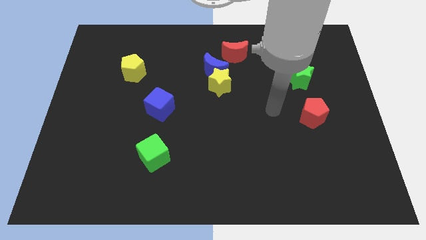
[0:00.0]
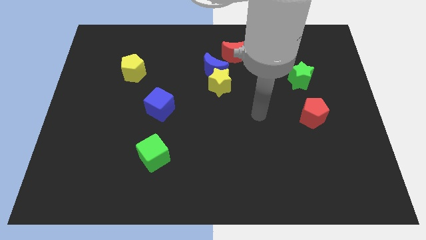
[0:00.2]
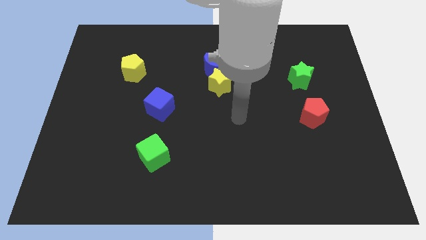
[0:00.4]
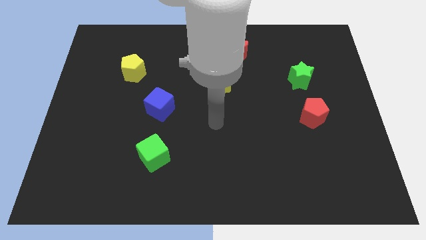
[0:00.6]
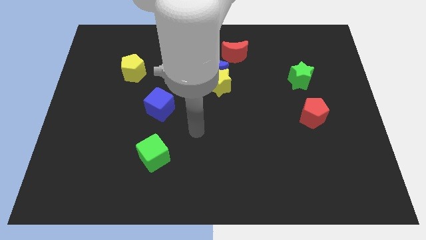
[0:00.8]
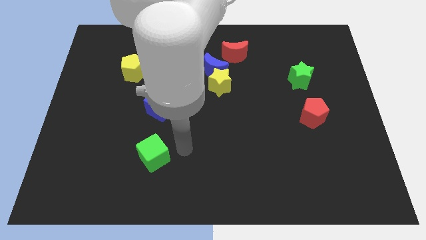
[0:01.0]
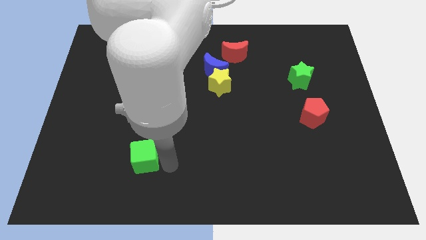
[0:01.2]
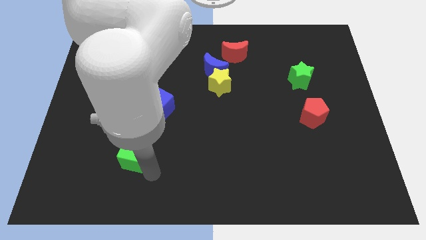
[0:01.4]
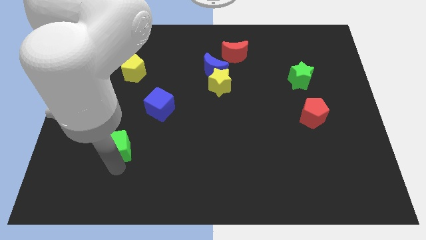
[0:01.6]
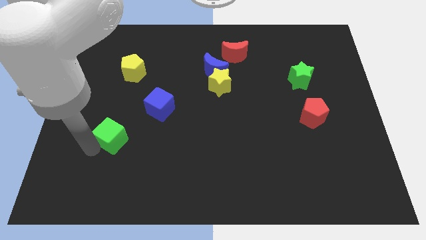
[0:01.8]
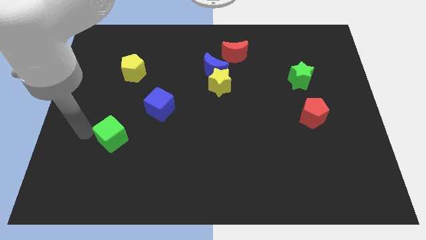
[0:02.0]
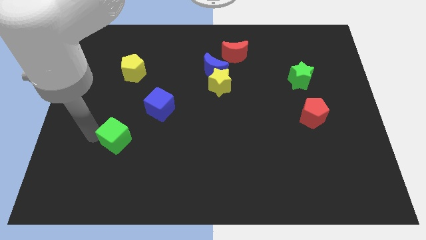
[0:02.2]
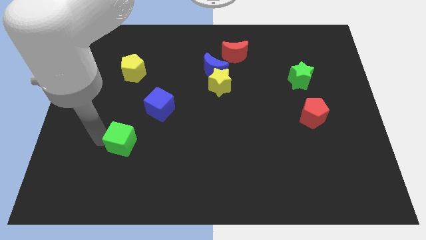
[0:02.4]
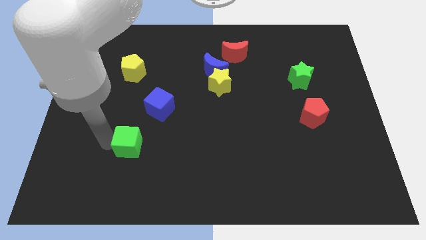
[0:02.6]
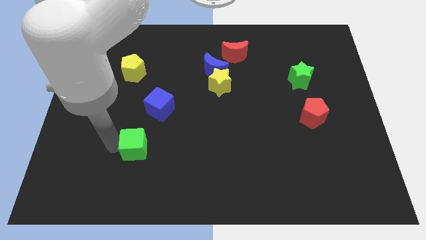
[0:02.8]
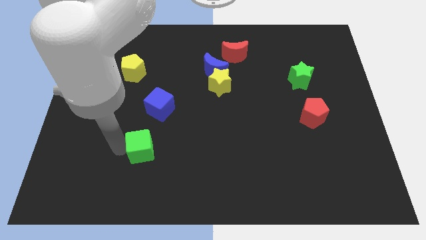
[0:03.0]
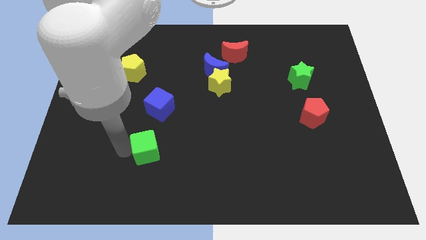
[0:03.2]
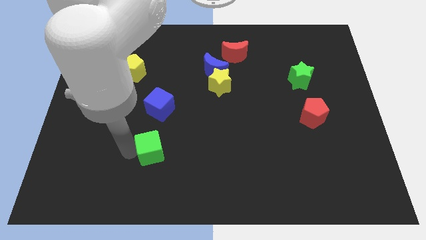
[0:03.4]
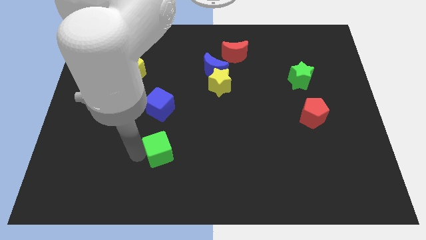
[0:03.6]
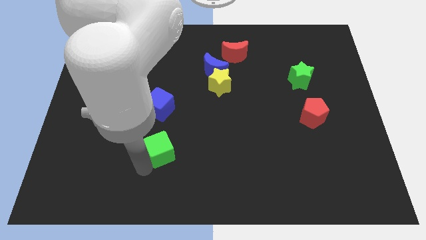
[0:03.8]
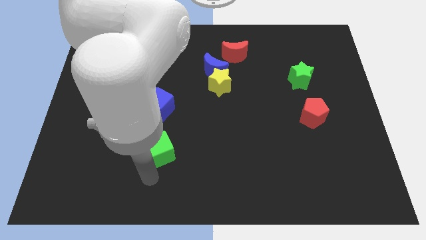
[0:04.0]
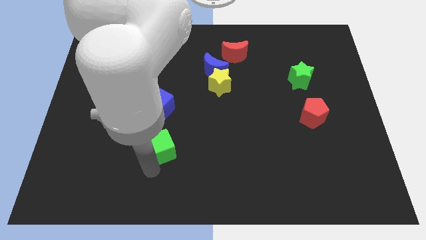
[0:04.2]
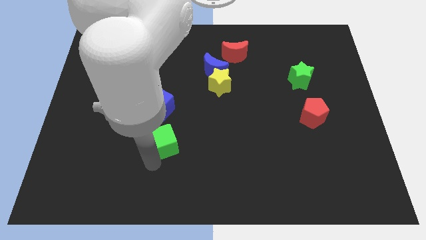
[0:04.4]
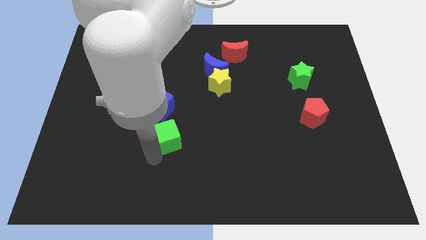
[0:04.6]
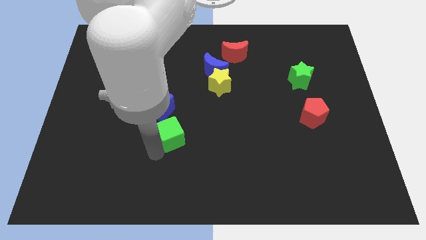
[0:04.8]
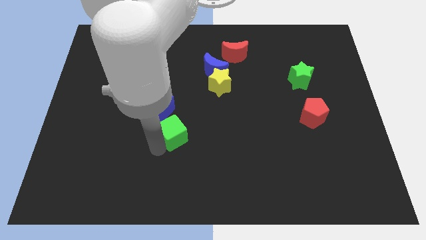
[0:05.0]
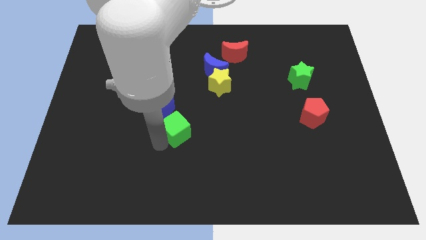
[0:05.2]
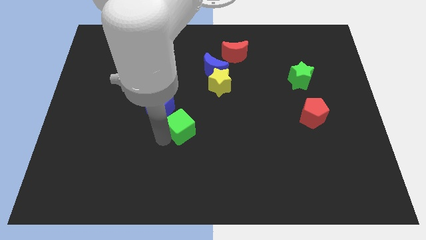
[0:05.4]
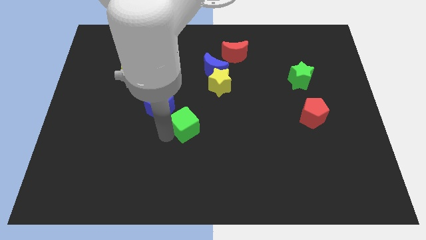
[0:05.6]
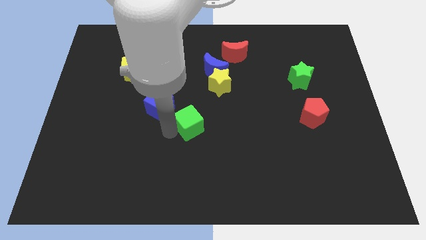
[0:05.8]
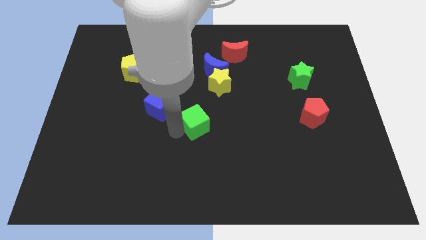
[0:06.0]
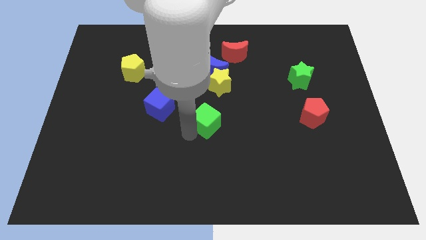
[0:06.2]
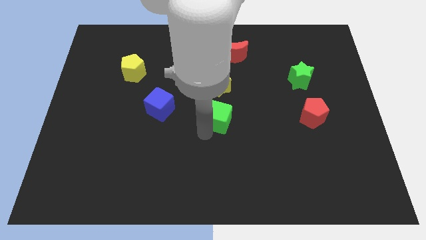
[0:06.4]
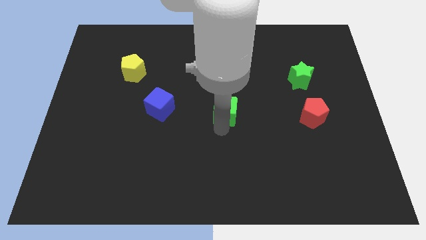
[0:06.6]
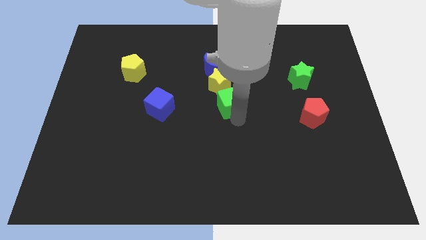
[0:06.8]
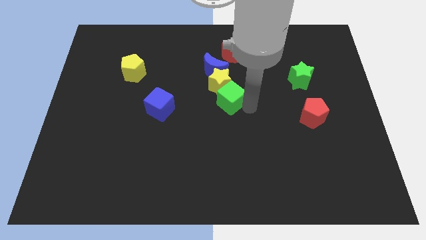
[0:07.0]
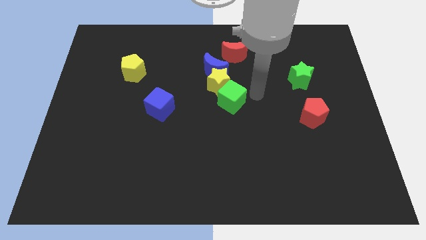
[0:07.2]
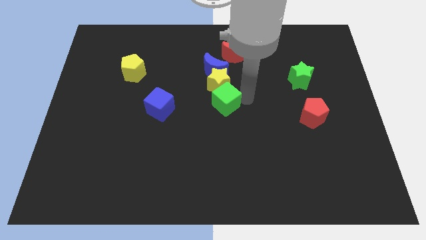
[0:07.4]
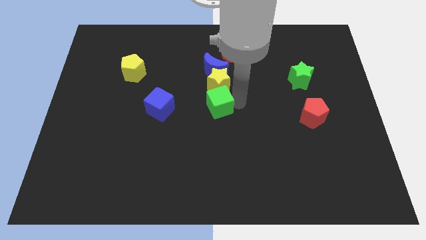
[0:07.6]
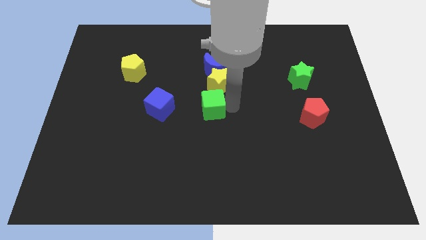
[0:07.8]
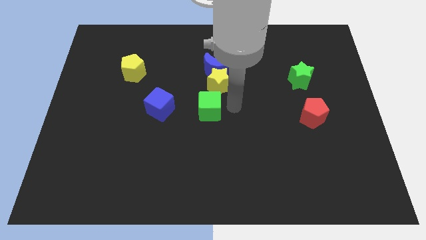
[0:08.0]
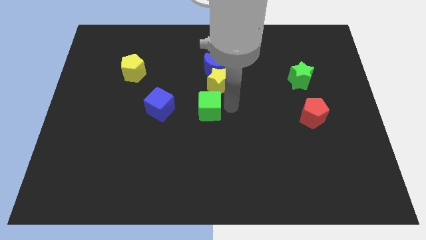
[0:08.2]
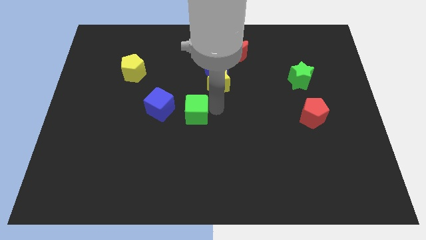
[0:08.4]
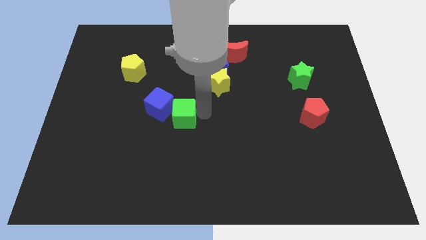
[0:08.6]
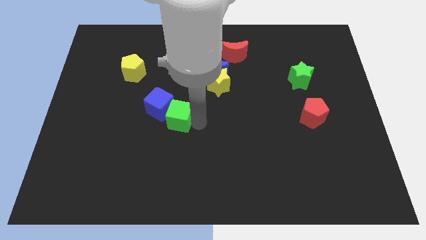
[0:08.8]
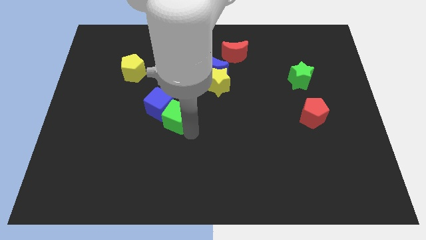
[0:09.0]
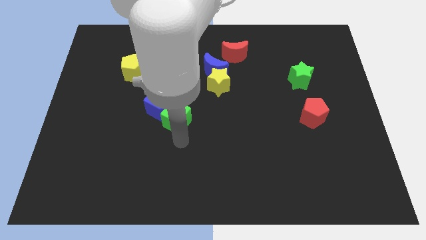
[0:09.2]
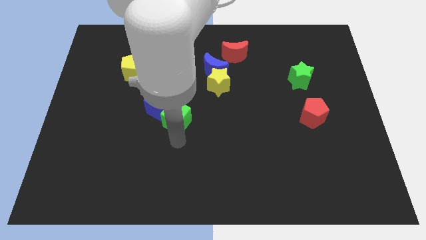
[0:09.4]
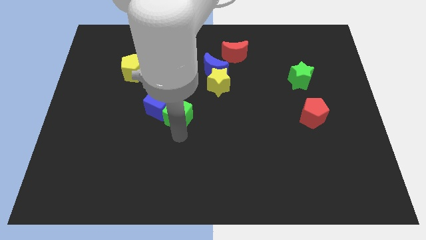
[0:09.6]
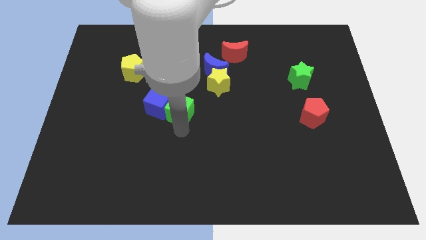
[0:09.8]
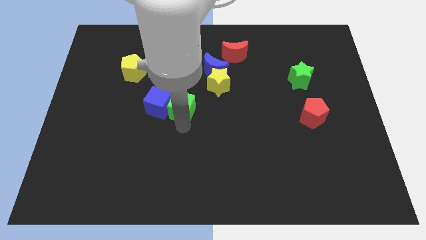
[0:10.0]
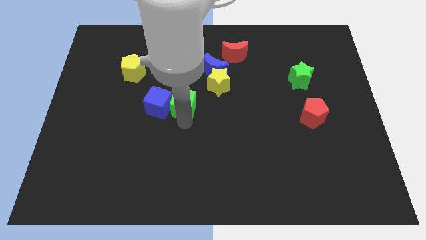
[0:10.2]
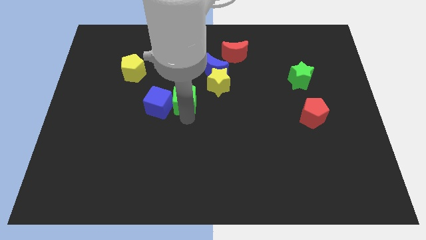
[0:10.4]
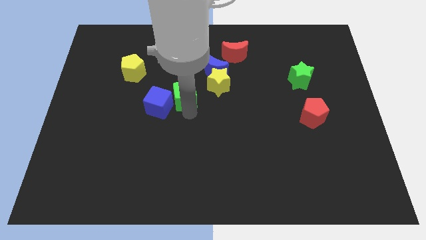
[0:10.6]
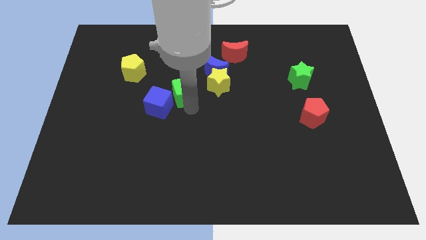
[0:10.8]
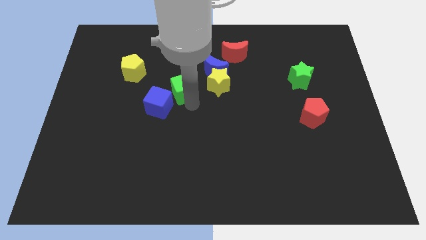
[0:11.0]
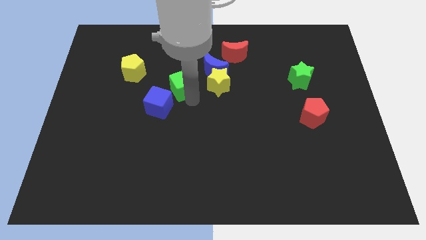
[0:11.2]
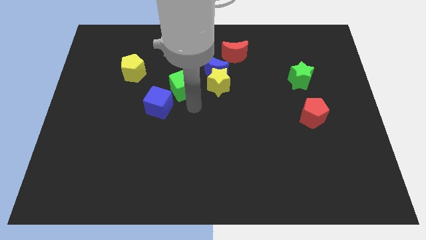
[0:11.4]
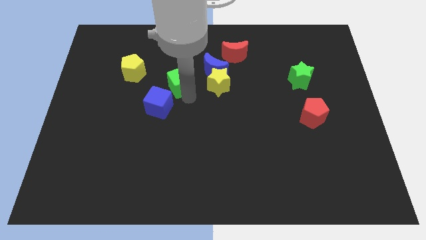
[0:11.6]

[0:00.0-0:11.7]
move the green cube to the left side of the blue moon

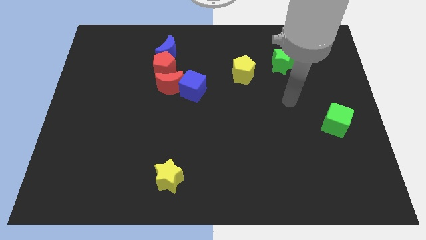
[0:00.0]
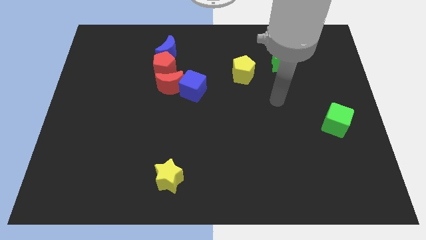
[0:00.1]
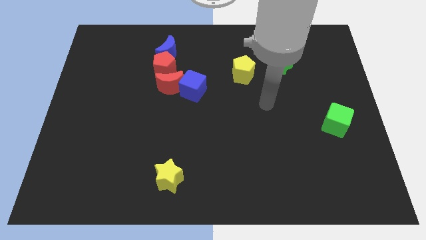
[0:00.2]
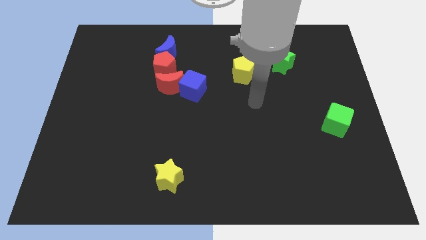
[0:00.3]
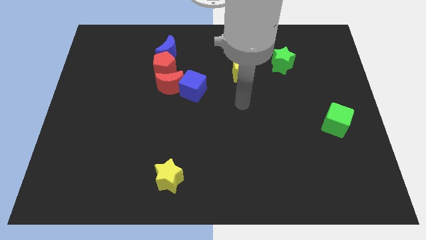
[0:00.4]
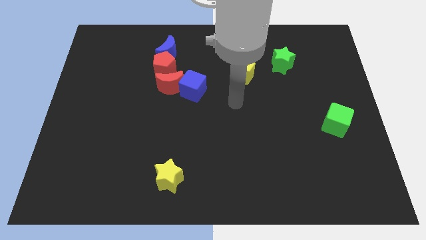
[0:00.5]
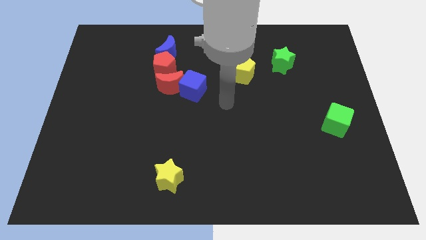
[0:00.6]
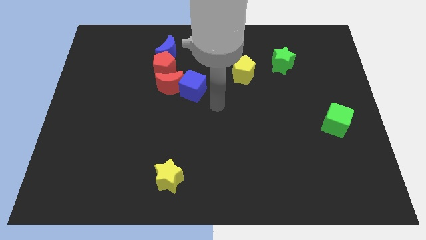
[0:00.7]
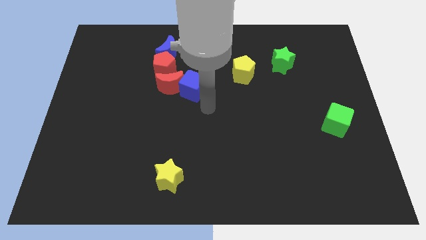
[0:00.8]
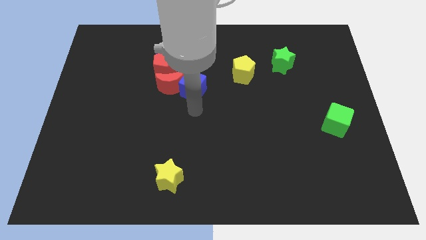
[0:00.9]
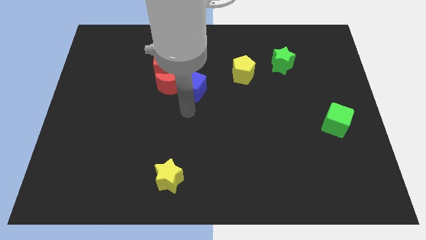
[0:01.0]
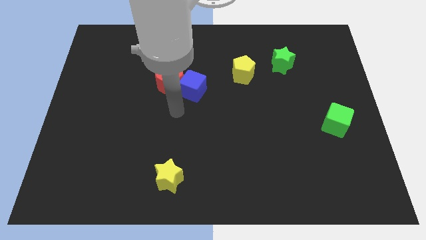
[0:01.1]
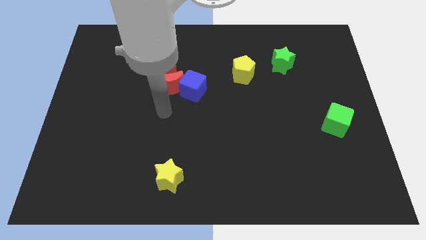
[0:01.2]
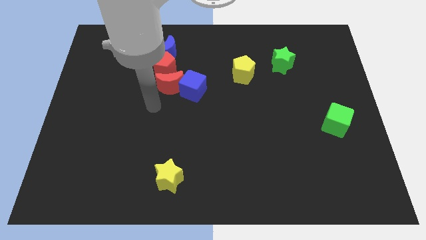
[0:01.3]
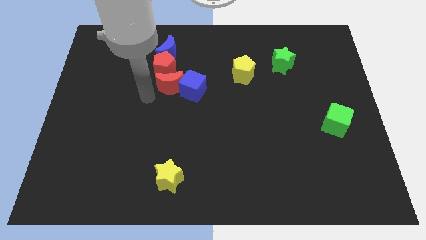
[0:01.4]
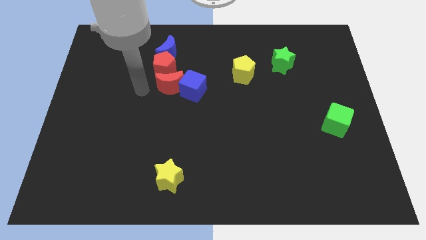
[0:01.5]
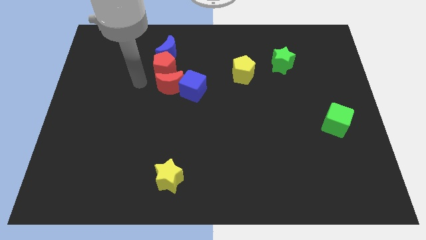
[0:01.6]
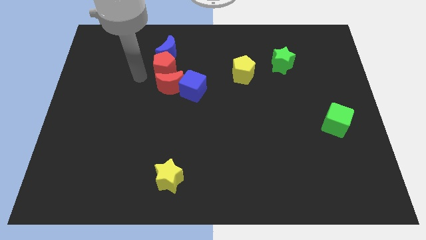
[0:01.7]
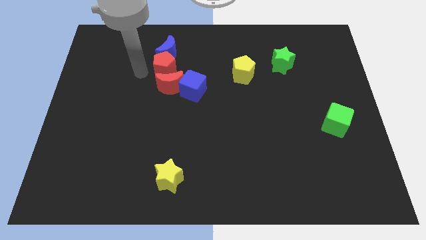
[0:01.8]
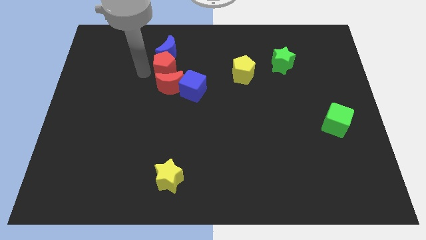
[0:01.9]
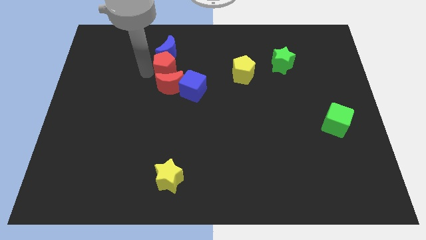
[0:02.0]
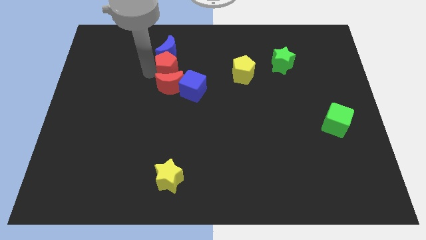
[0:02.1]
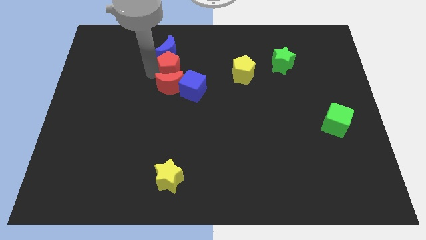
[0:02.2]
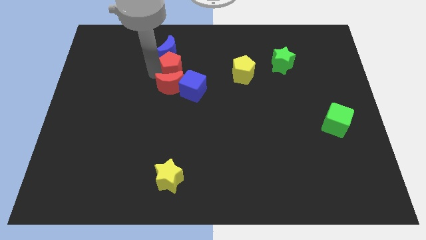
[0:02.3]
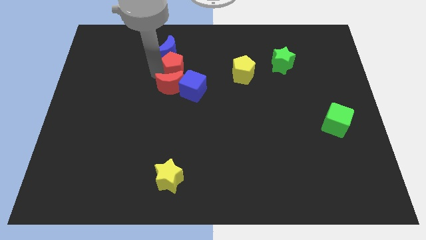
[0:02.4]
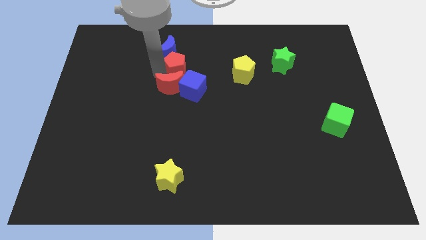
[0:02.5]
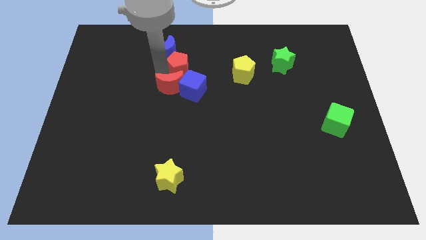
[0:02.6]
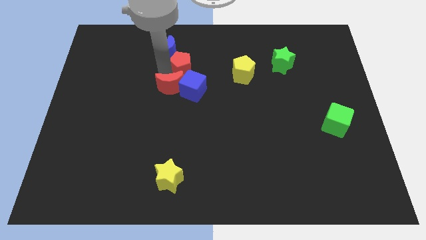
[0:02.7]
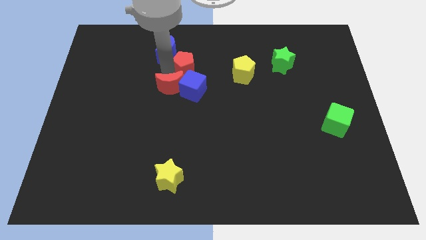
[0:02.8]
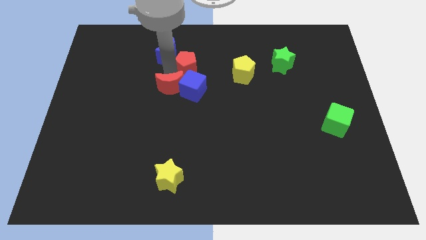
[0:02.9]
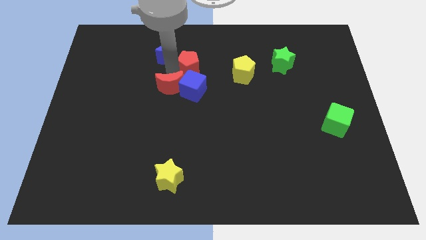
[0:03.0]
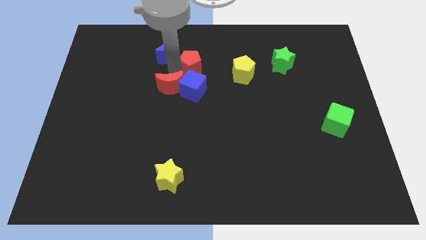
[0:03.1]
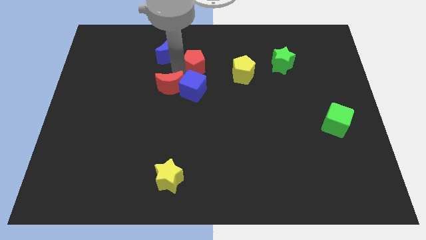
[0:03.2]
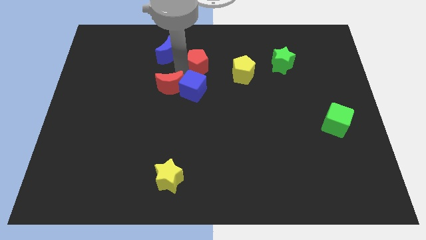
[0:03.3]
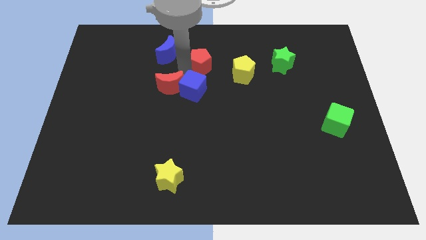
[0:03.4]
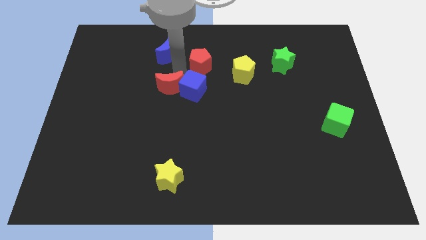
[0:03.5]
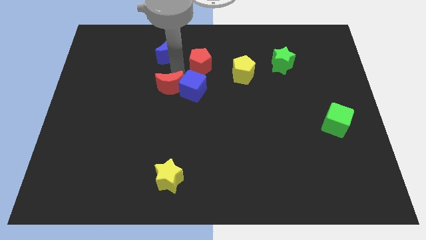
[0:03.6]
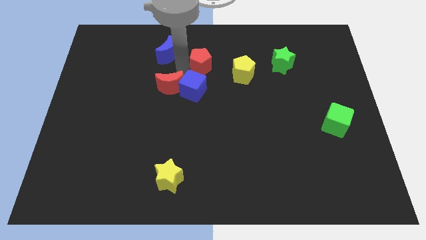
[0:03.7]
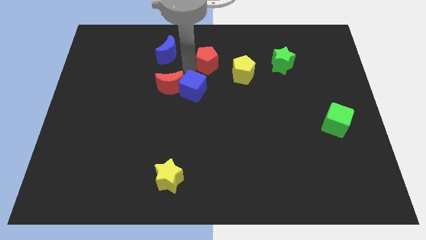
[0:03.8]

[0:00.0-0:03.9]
put the red pentagon to the top left side of the yellow pentagon
